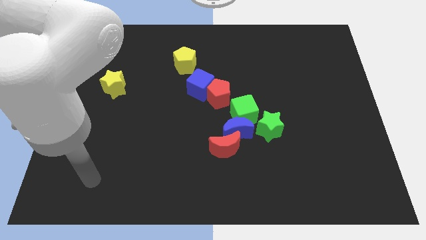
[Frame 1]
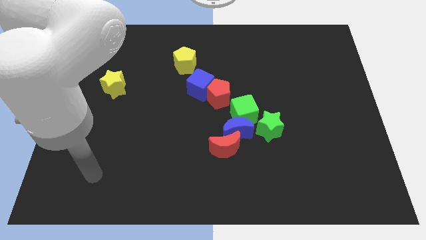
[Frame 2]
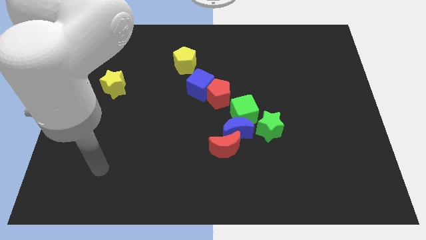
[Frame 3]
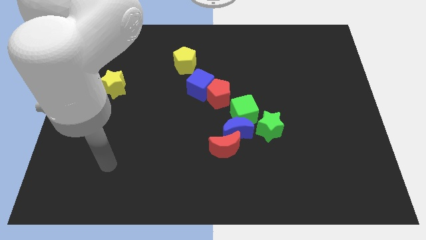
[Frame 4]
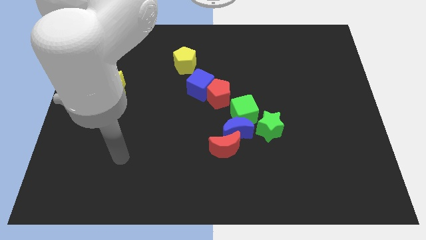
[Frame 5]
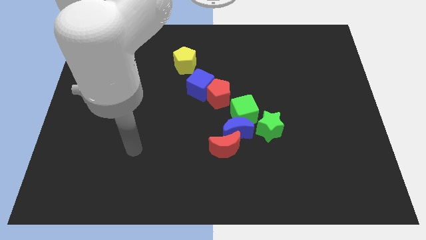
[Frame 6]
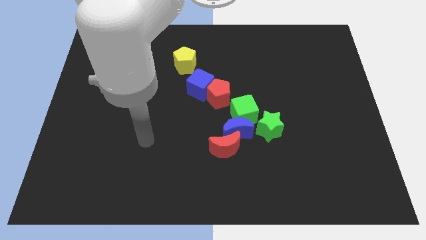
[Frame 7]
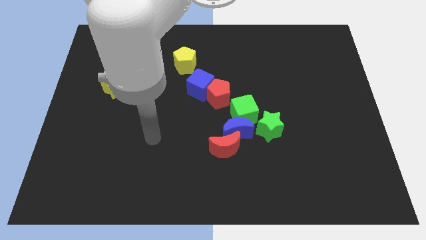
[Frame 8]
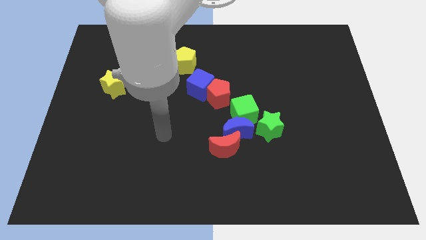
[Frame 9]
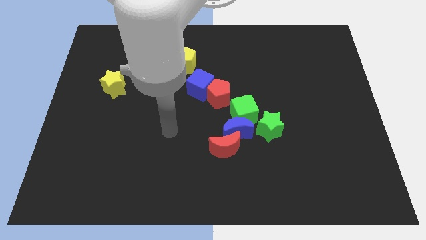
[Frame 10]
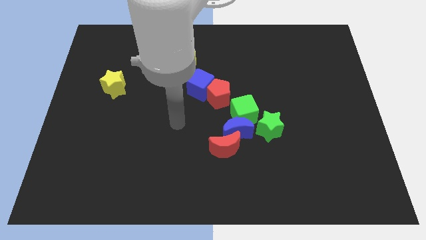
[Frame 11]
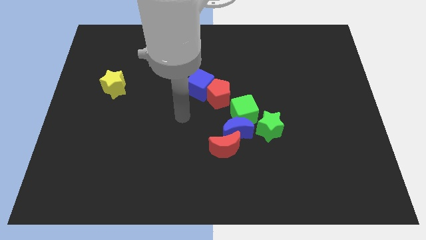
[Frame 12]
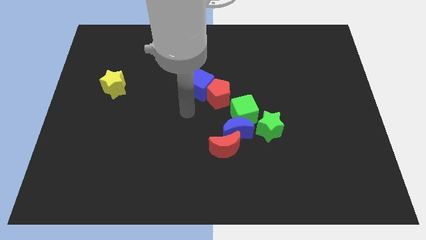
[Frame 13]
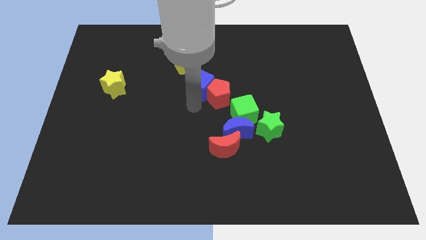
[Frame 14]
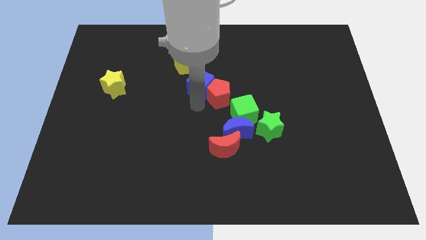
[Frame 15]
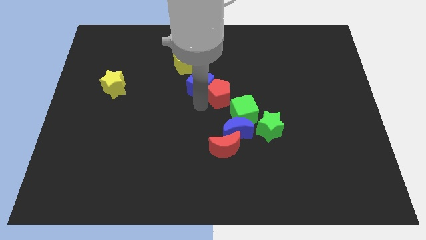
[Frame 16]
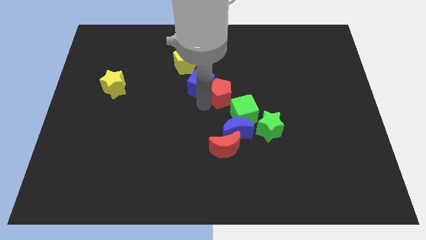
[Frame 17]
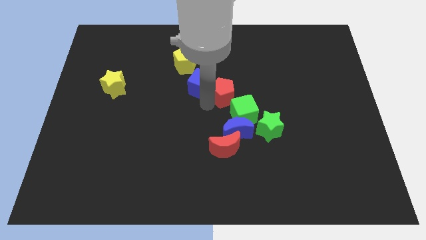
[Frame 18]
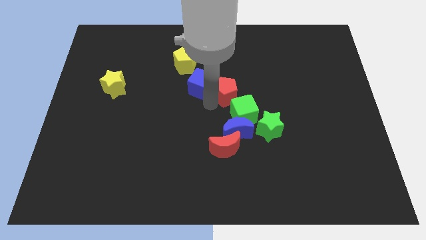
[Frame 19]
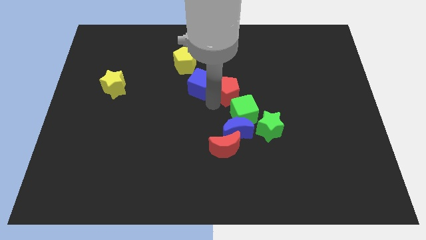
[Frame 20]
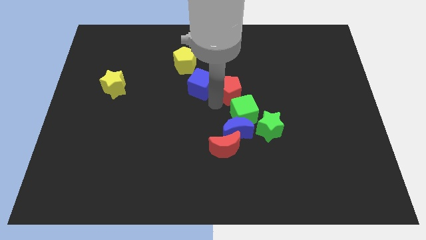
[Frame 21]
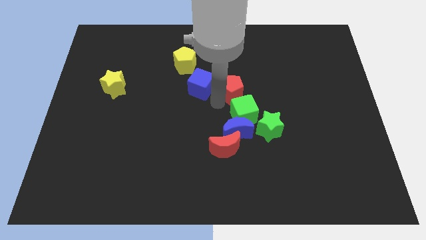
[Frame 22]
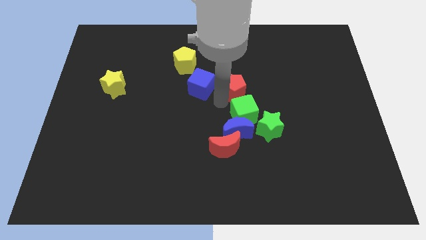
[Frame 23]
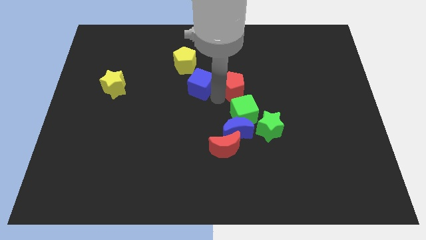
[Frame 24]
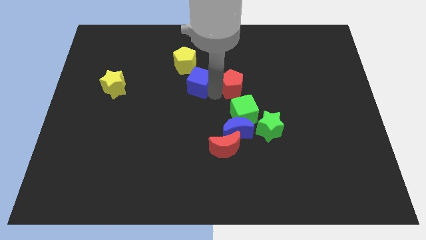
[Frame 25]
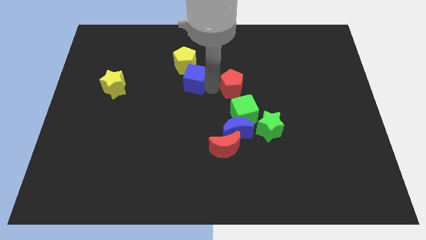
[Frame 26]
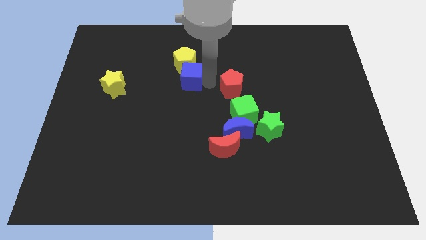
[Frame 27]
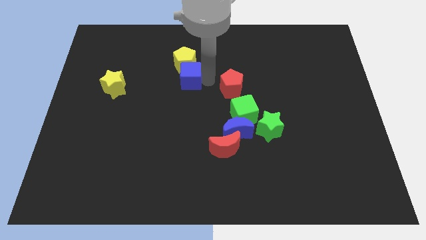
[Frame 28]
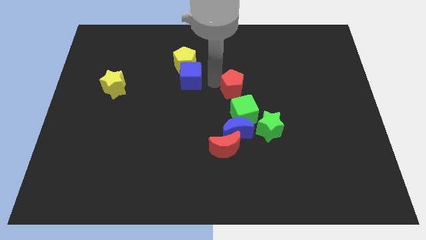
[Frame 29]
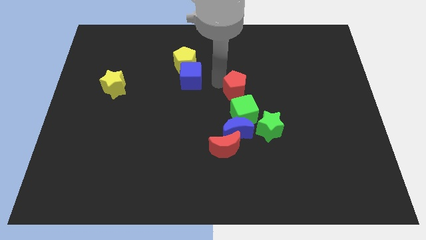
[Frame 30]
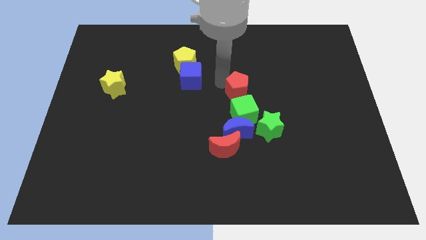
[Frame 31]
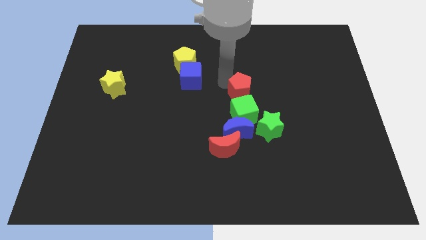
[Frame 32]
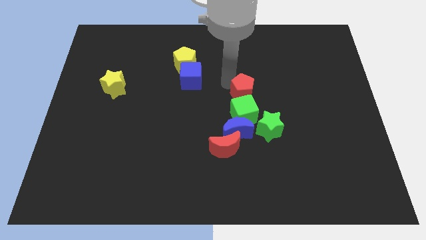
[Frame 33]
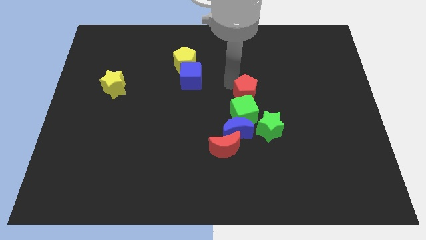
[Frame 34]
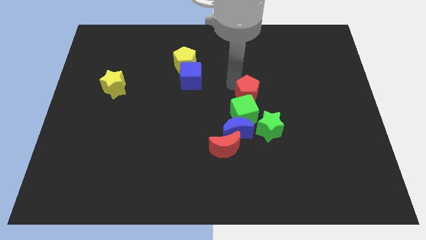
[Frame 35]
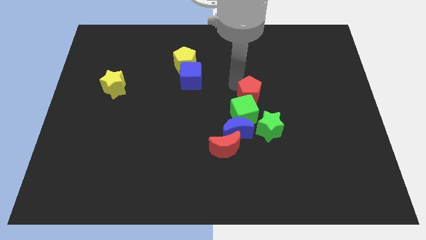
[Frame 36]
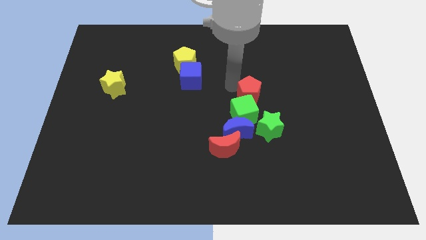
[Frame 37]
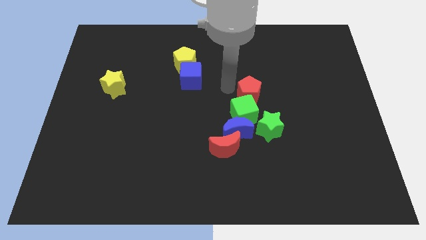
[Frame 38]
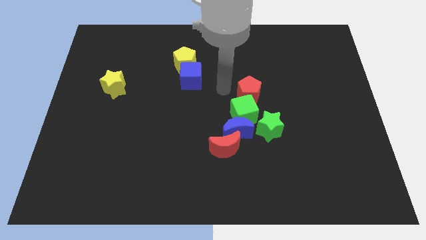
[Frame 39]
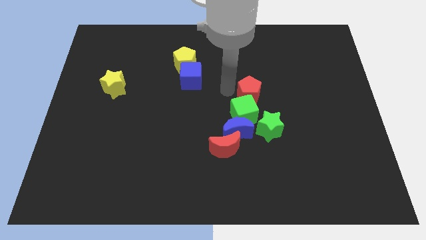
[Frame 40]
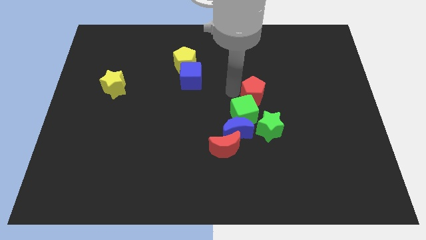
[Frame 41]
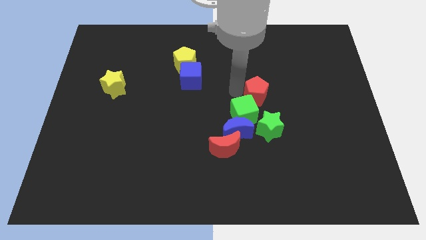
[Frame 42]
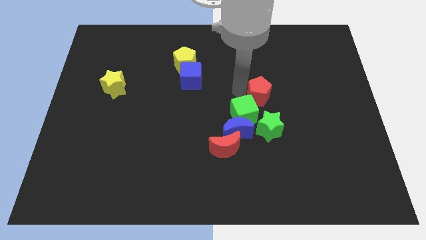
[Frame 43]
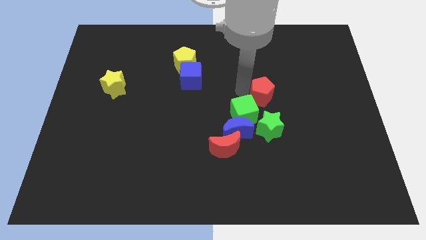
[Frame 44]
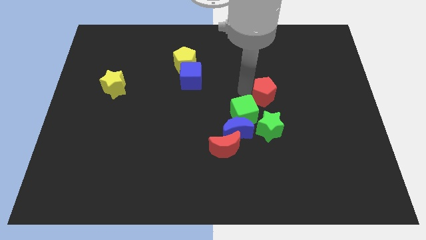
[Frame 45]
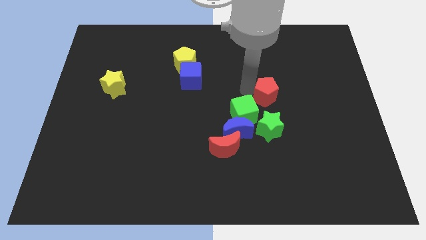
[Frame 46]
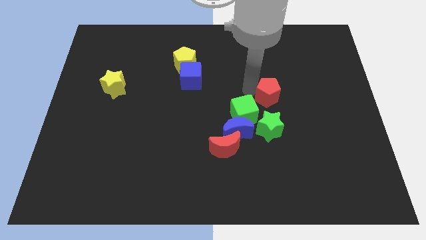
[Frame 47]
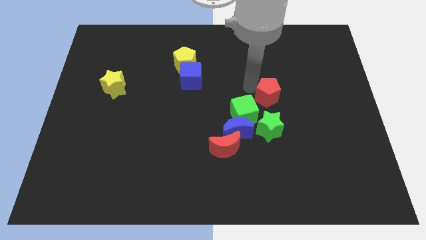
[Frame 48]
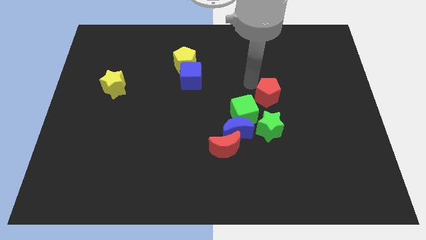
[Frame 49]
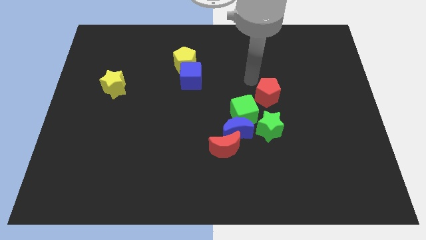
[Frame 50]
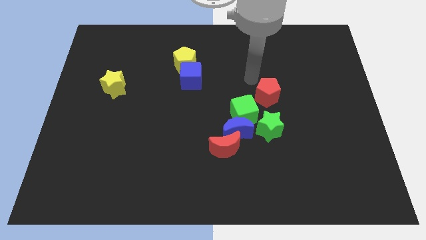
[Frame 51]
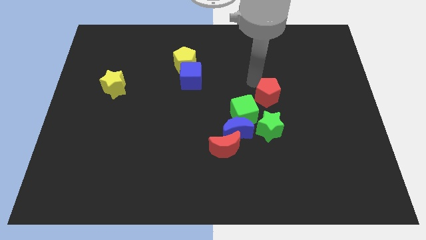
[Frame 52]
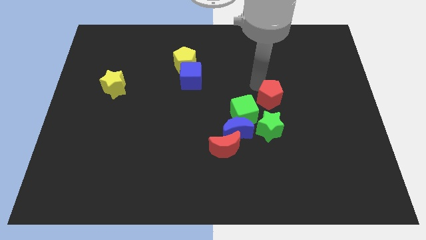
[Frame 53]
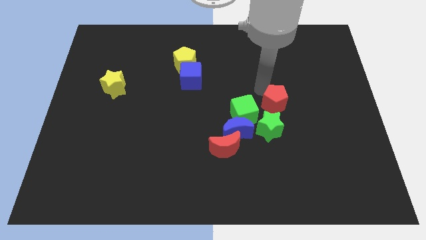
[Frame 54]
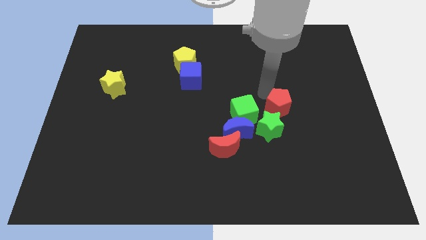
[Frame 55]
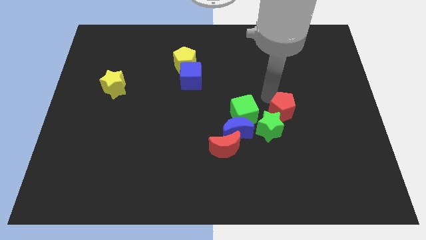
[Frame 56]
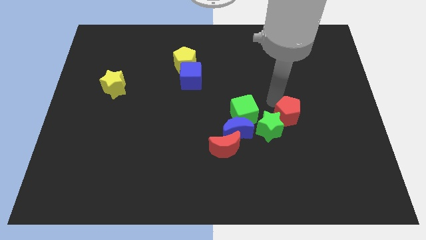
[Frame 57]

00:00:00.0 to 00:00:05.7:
push the red pentagon just right of the blue moon

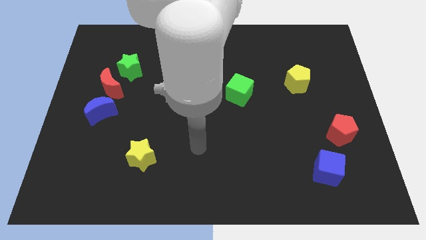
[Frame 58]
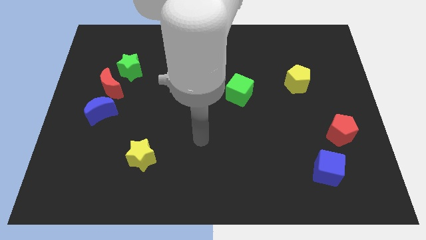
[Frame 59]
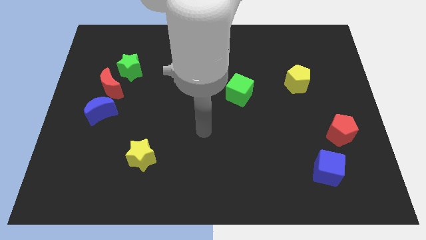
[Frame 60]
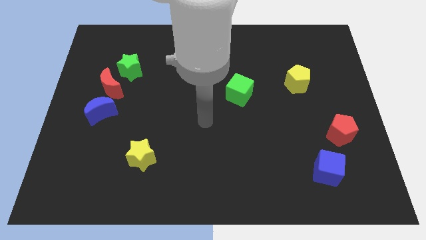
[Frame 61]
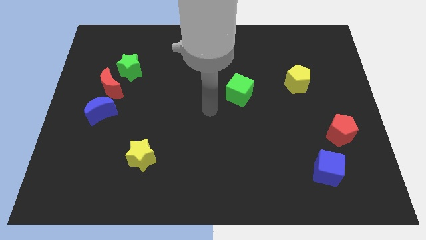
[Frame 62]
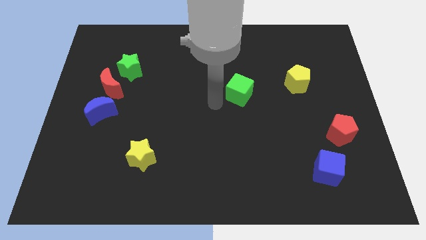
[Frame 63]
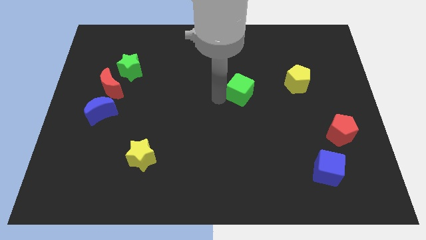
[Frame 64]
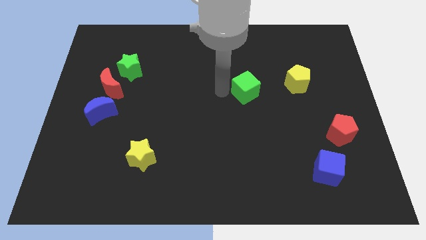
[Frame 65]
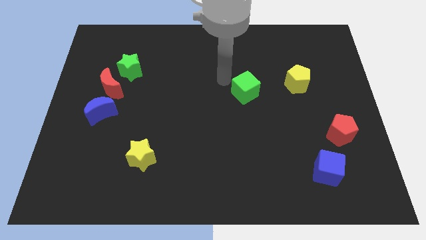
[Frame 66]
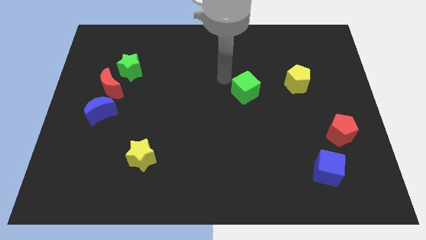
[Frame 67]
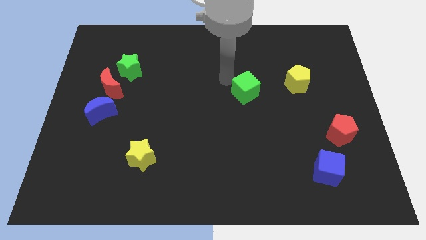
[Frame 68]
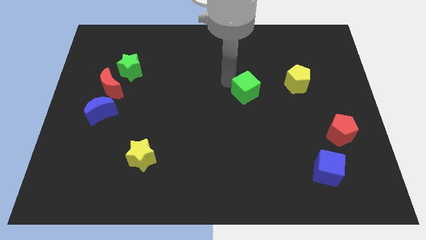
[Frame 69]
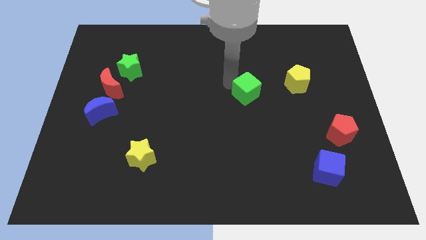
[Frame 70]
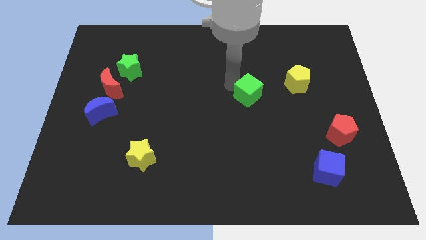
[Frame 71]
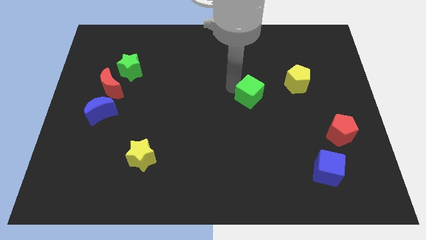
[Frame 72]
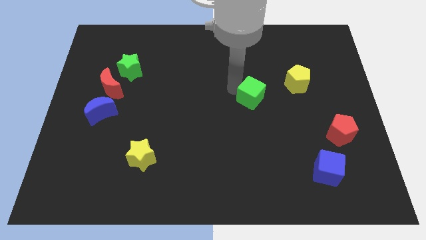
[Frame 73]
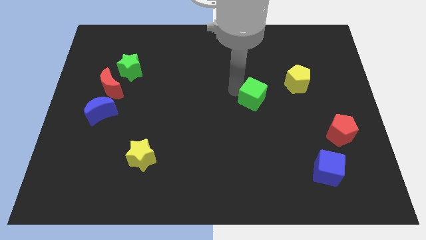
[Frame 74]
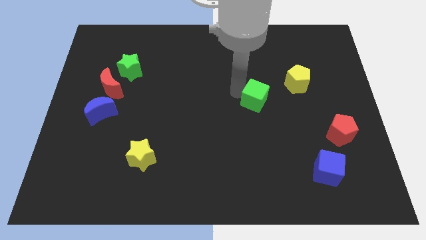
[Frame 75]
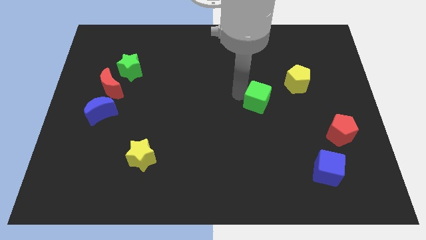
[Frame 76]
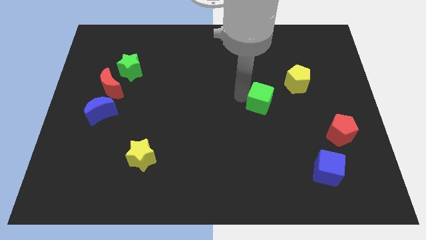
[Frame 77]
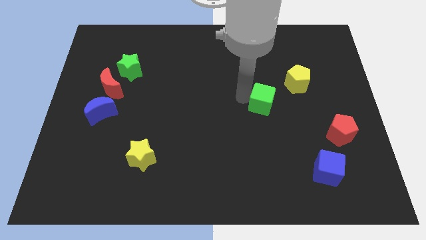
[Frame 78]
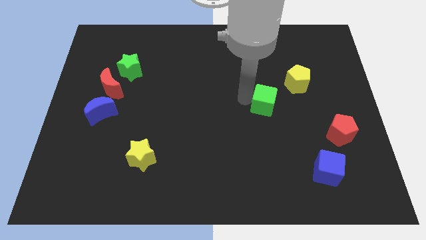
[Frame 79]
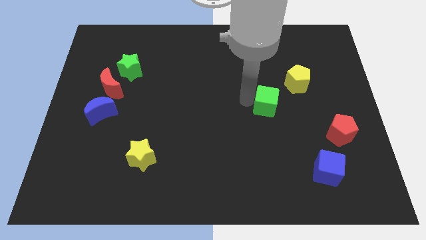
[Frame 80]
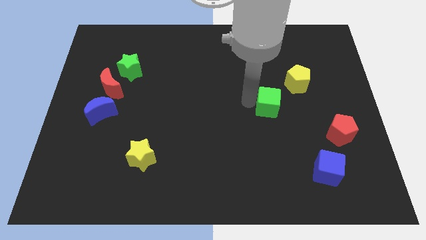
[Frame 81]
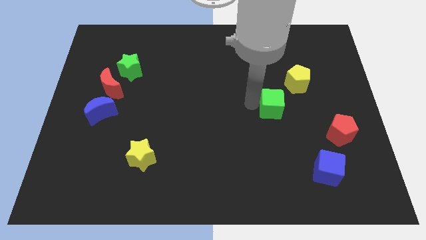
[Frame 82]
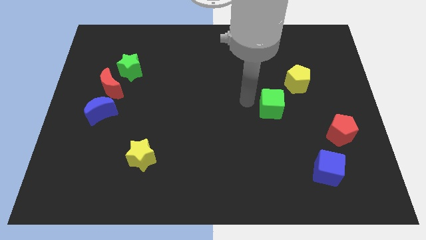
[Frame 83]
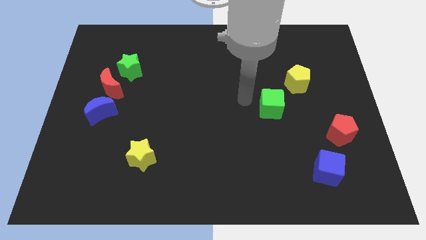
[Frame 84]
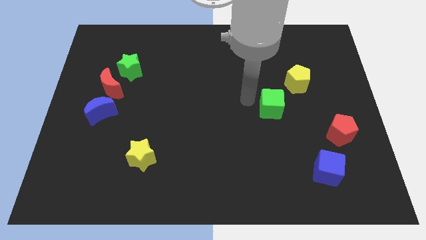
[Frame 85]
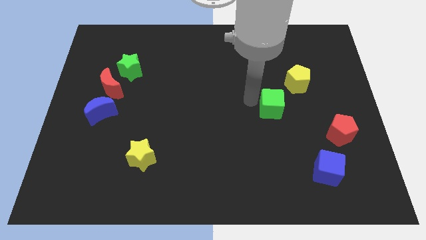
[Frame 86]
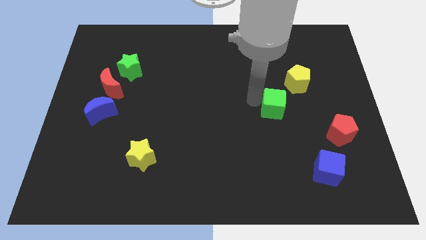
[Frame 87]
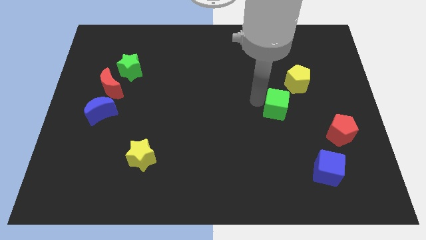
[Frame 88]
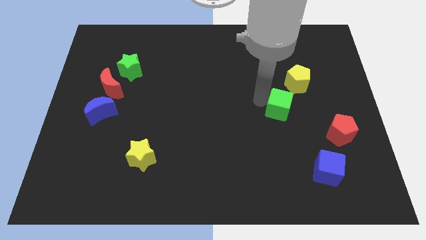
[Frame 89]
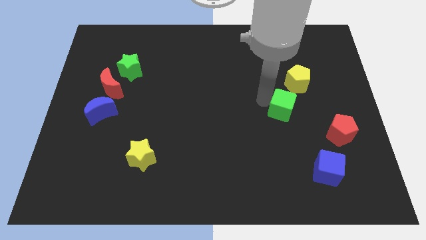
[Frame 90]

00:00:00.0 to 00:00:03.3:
push the green cube below the yellow pentagon
